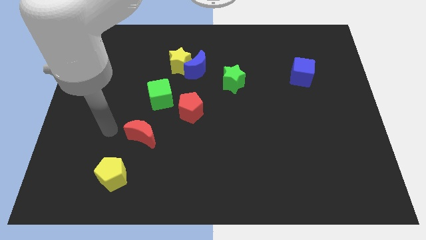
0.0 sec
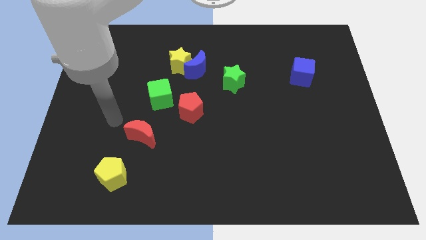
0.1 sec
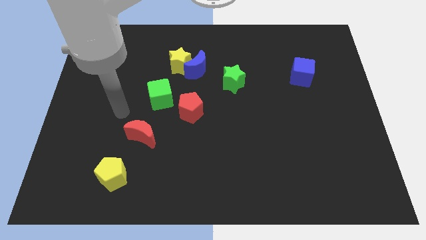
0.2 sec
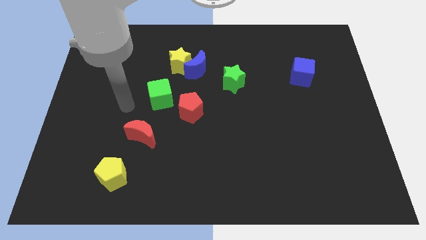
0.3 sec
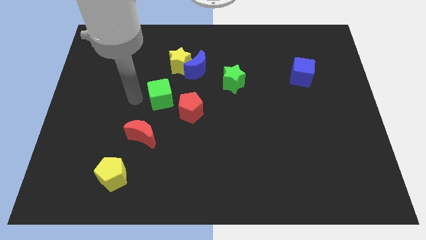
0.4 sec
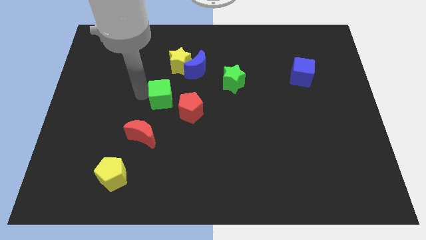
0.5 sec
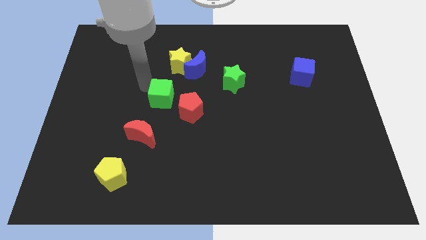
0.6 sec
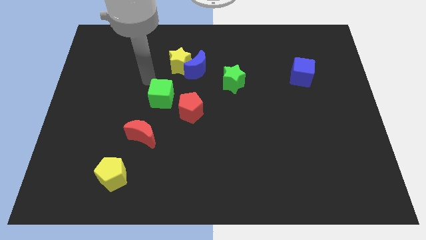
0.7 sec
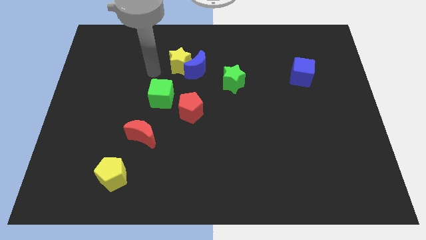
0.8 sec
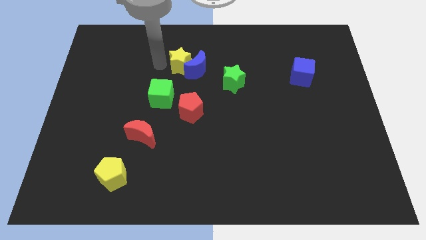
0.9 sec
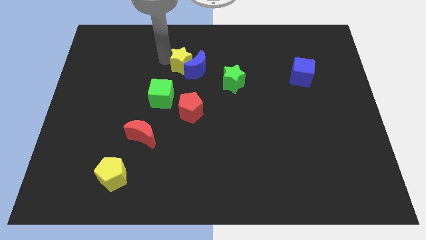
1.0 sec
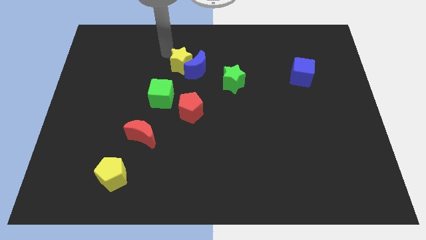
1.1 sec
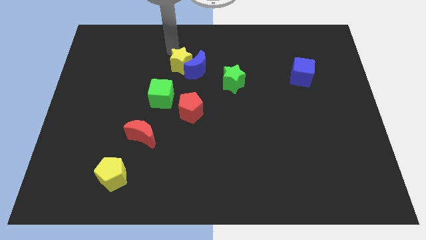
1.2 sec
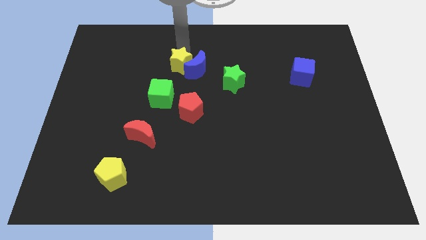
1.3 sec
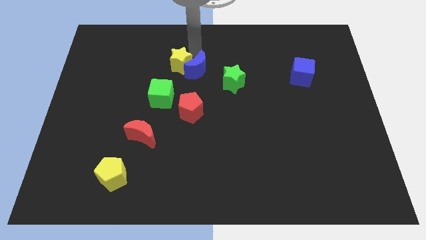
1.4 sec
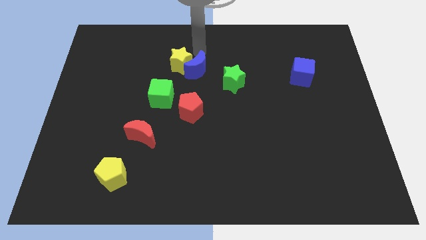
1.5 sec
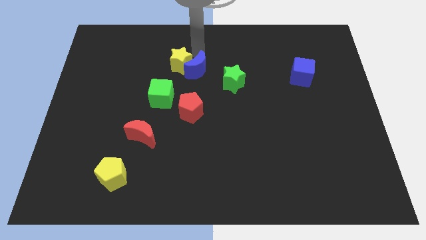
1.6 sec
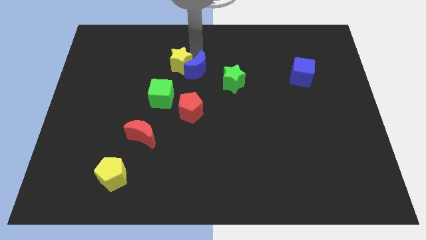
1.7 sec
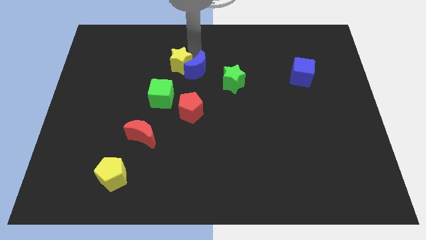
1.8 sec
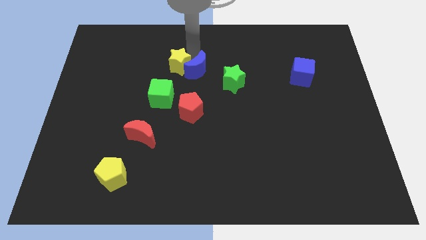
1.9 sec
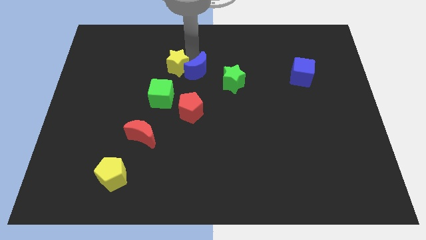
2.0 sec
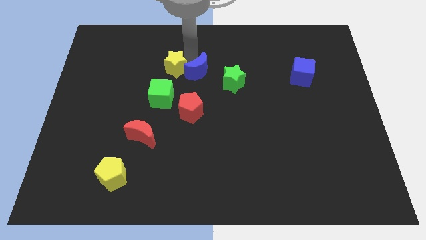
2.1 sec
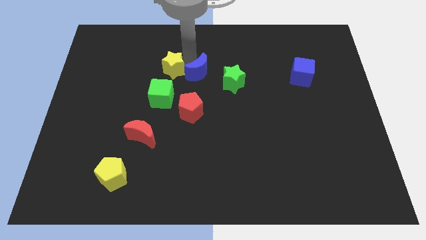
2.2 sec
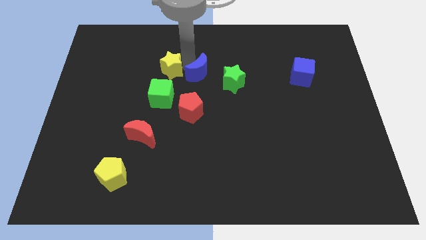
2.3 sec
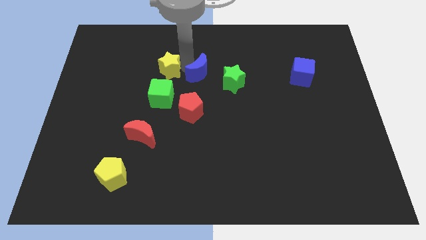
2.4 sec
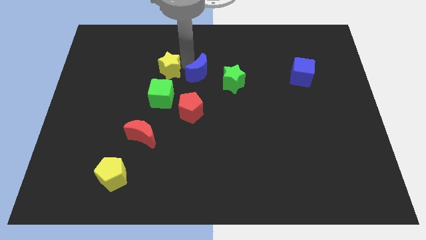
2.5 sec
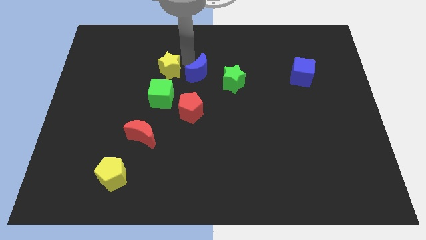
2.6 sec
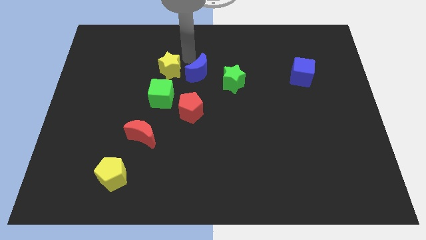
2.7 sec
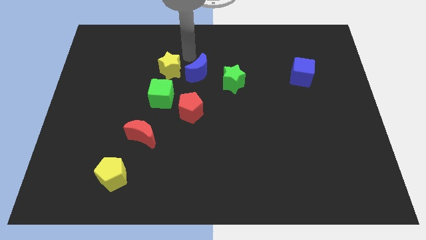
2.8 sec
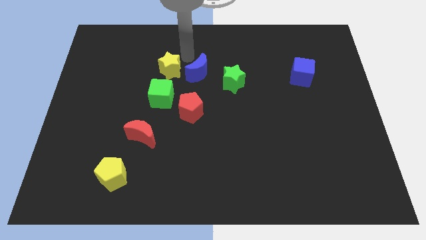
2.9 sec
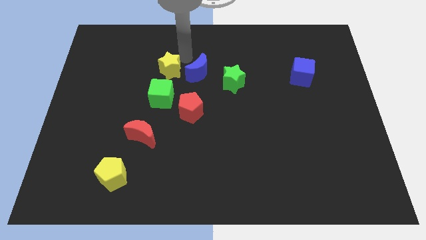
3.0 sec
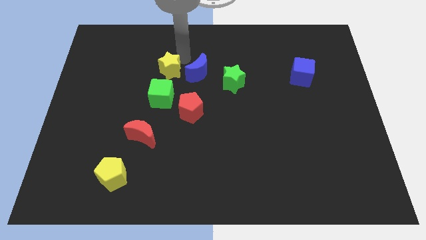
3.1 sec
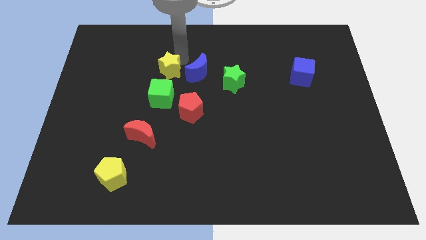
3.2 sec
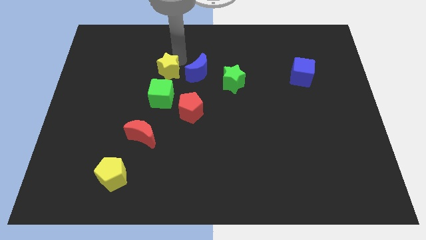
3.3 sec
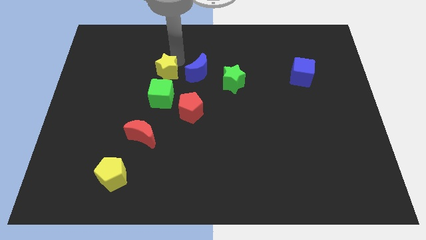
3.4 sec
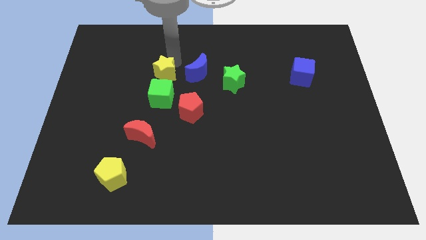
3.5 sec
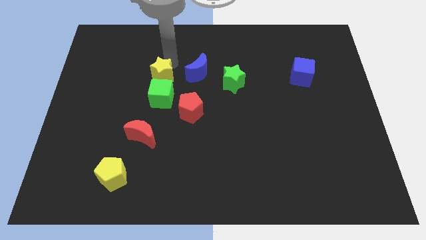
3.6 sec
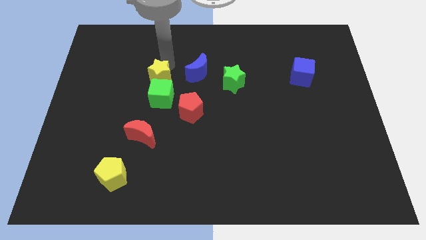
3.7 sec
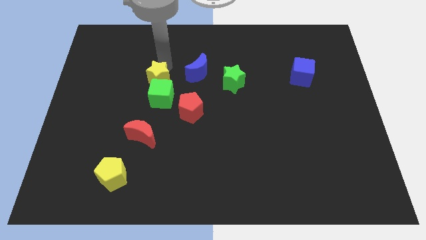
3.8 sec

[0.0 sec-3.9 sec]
slightly slide the yellow star downwards and left diagonally

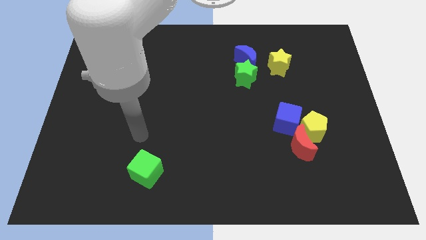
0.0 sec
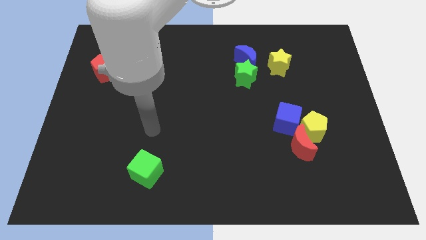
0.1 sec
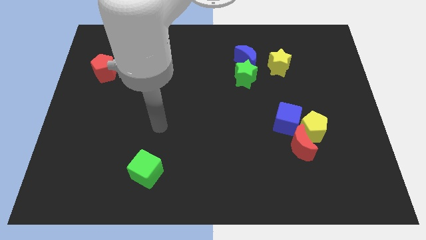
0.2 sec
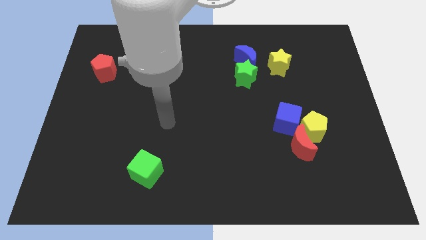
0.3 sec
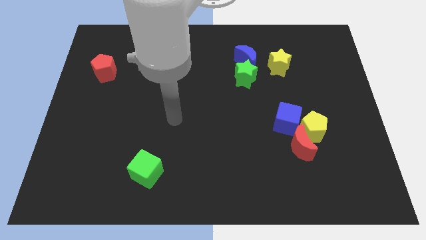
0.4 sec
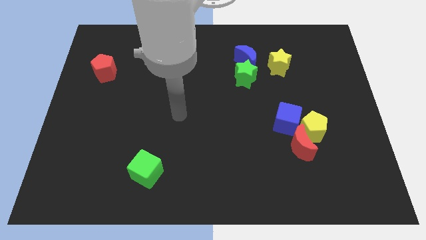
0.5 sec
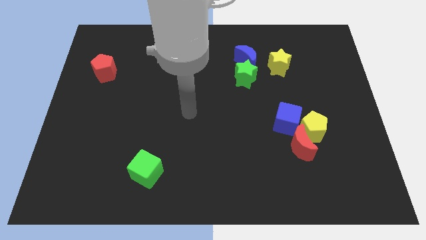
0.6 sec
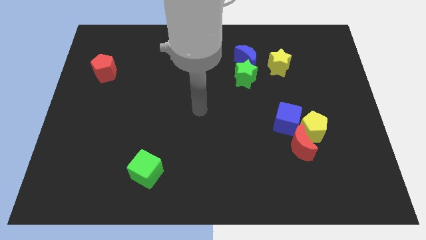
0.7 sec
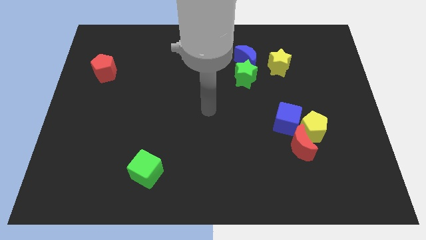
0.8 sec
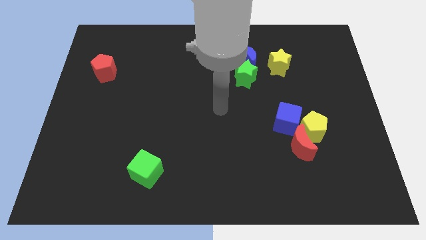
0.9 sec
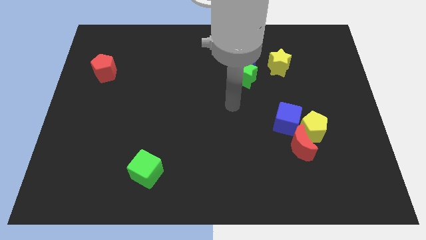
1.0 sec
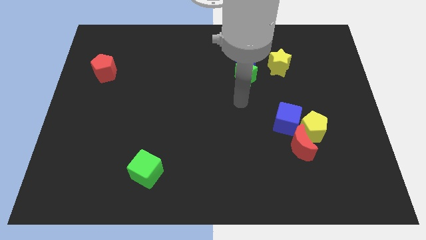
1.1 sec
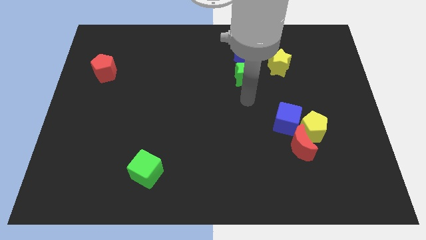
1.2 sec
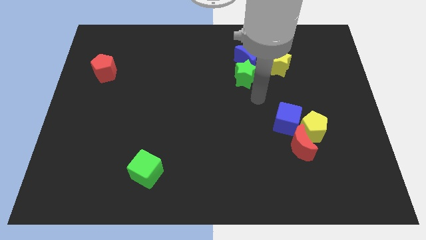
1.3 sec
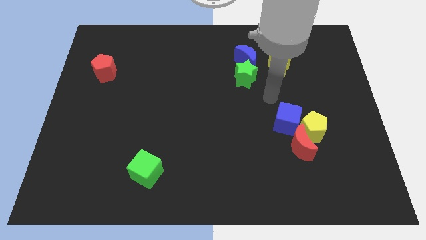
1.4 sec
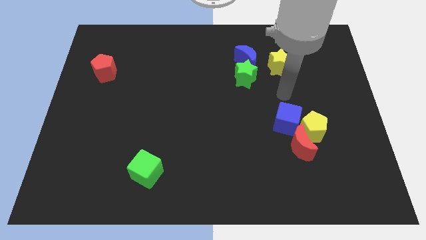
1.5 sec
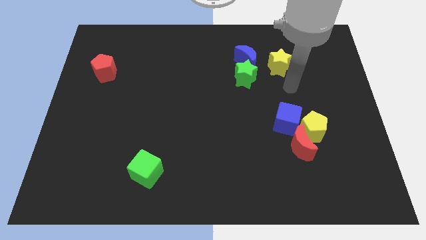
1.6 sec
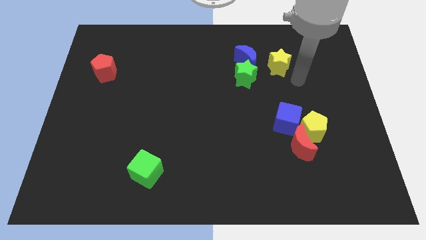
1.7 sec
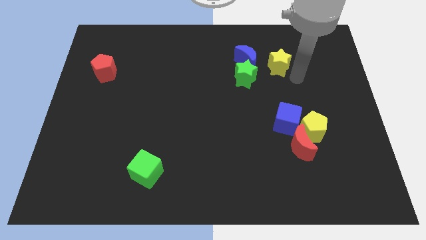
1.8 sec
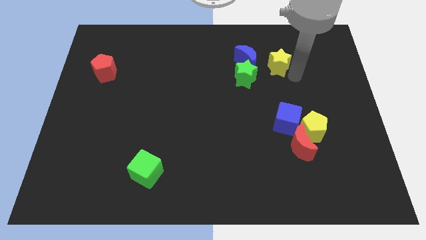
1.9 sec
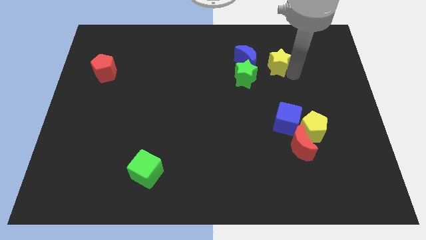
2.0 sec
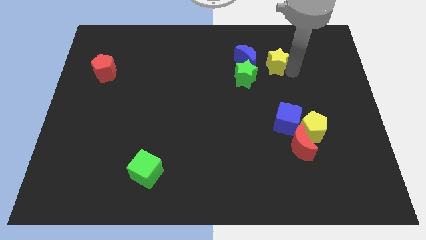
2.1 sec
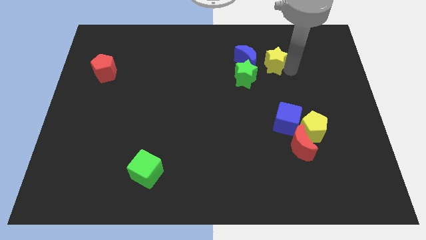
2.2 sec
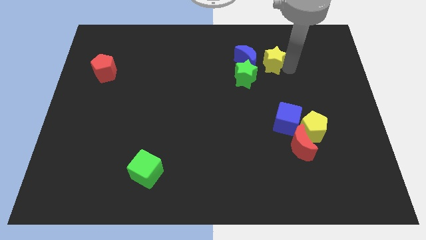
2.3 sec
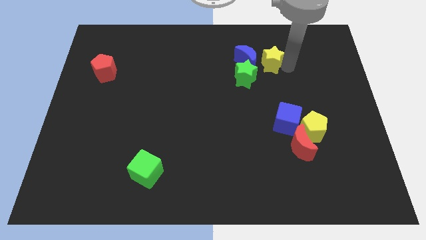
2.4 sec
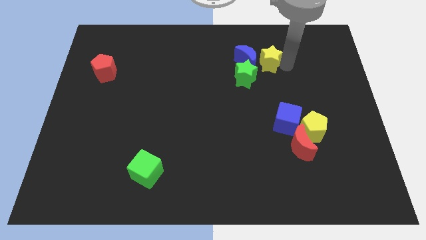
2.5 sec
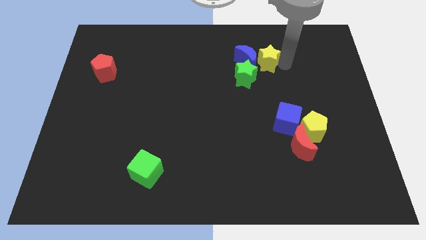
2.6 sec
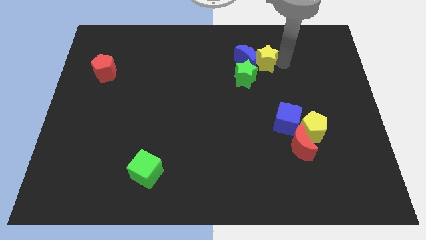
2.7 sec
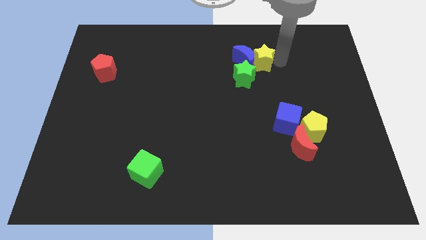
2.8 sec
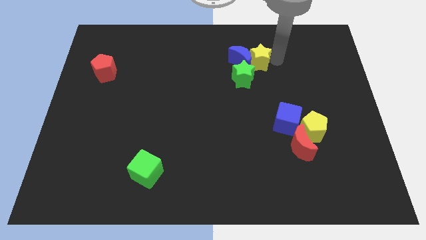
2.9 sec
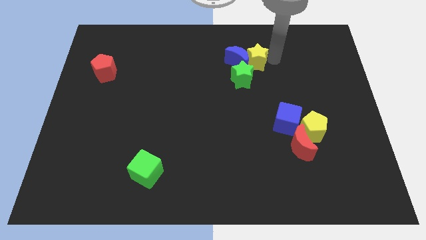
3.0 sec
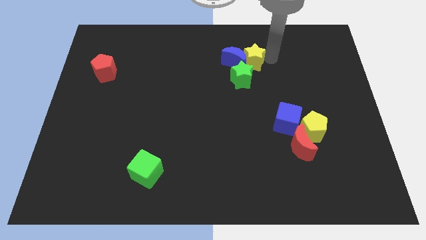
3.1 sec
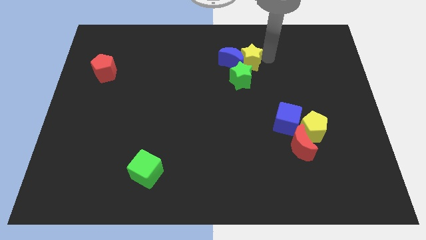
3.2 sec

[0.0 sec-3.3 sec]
slide the yellow star left a little

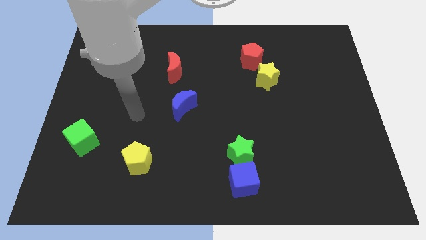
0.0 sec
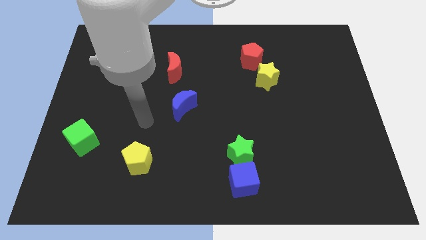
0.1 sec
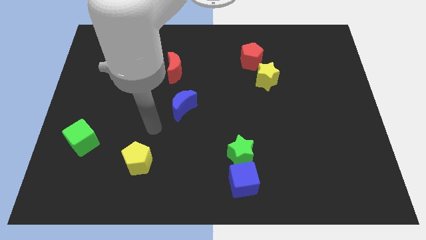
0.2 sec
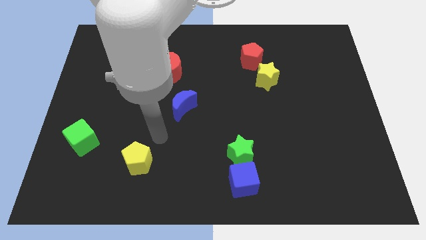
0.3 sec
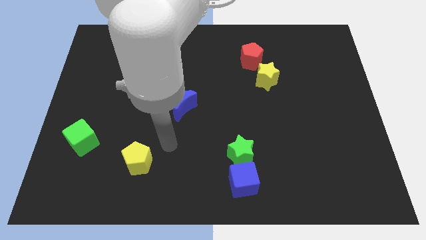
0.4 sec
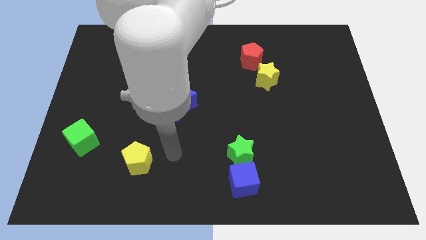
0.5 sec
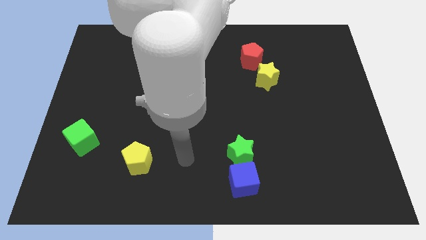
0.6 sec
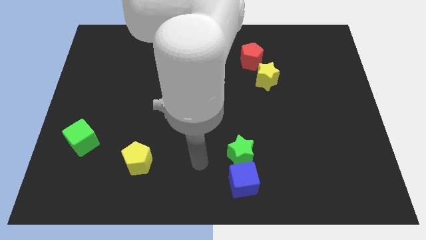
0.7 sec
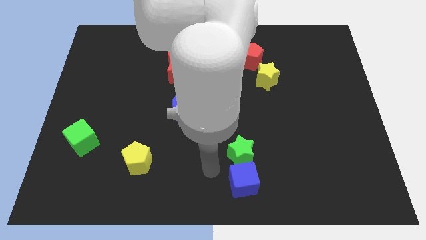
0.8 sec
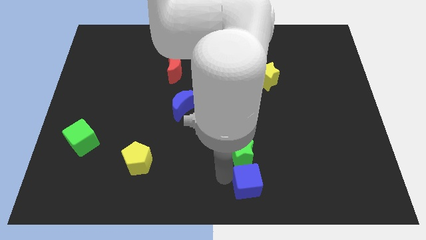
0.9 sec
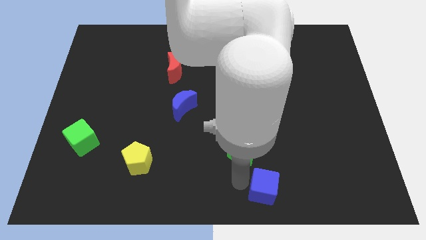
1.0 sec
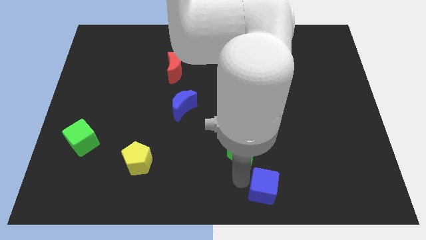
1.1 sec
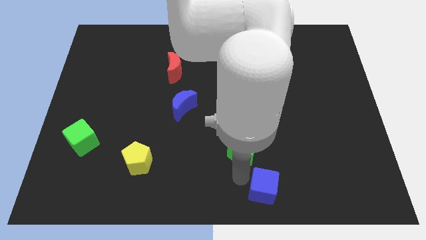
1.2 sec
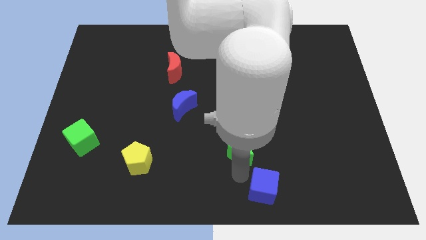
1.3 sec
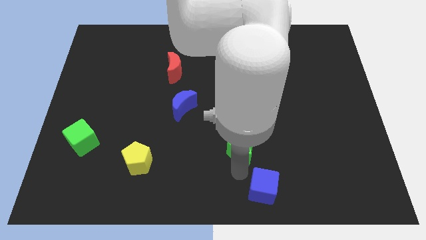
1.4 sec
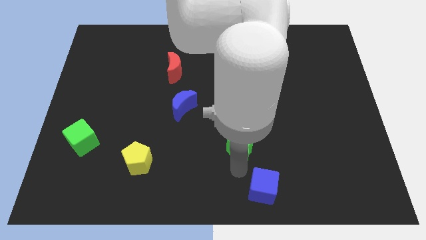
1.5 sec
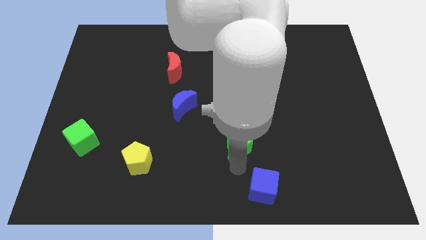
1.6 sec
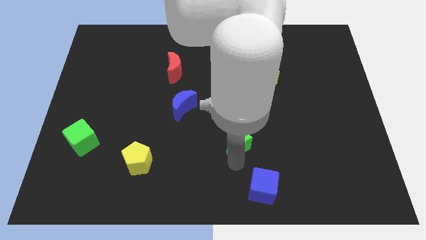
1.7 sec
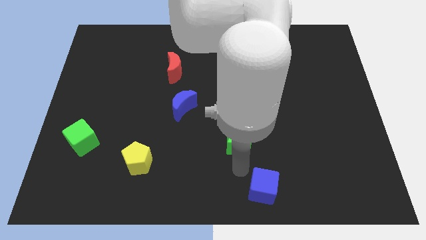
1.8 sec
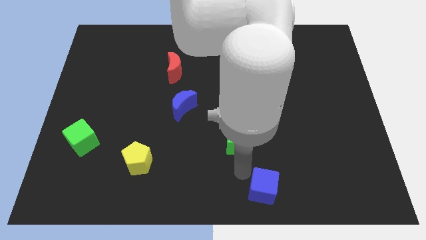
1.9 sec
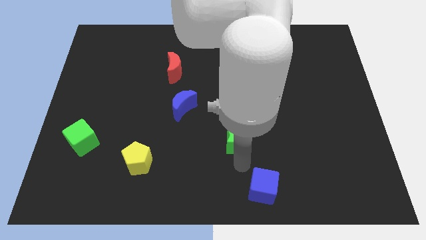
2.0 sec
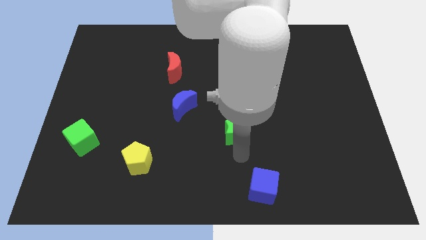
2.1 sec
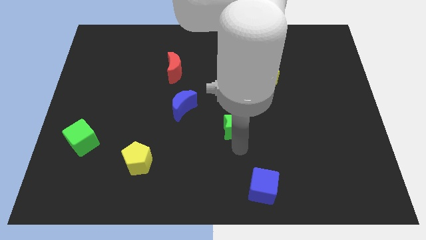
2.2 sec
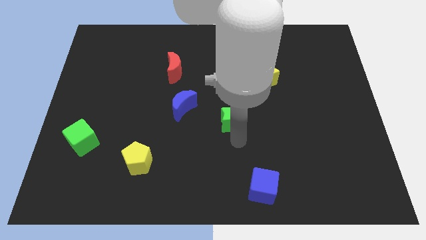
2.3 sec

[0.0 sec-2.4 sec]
slide the green star a little upwards
